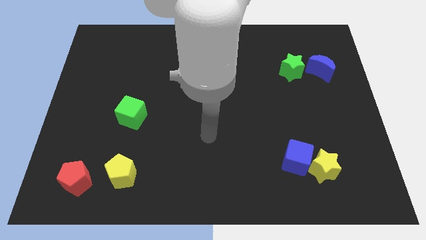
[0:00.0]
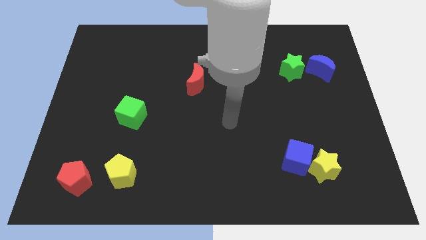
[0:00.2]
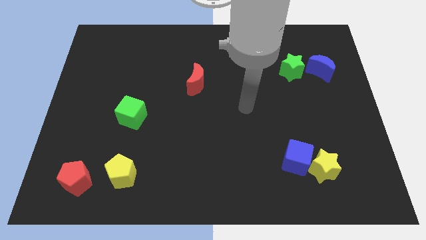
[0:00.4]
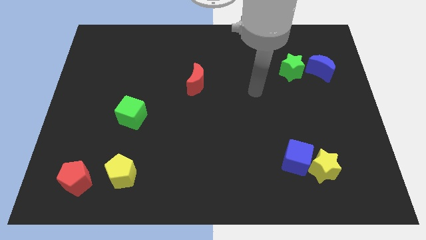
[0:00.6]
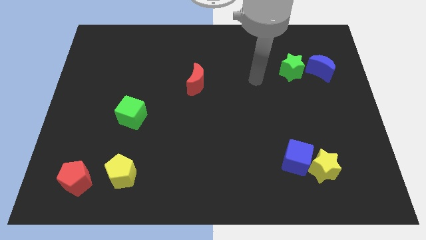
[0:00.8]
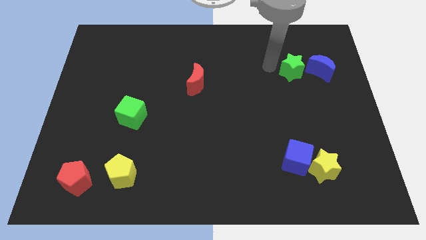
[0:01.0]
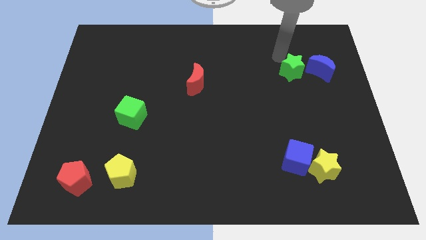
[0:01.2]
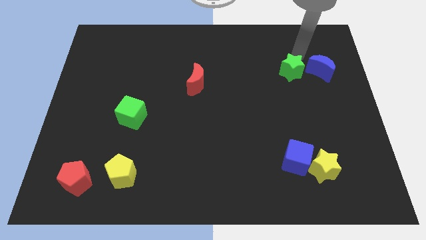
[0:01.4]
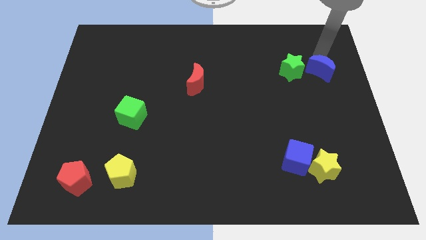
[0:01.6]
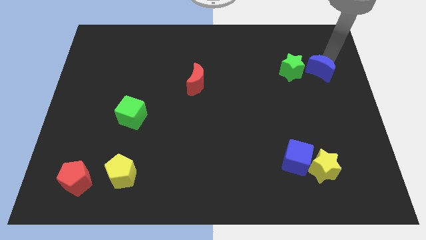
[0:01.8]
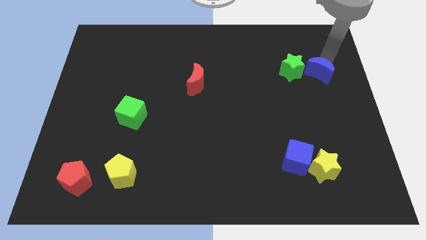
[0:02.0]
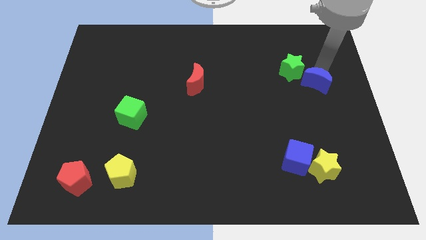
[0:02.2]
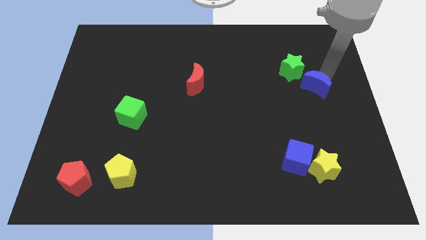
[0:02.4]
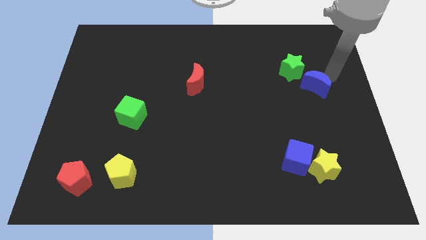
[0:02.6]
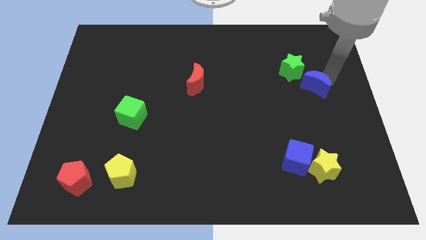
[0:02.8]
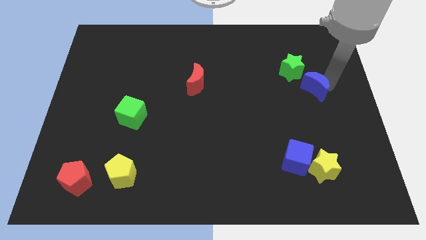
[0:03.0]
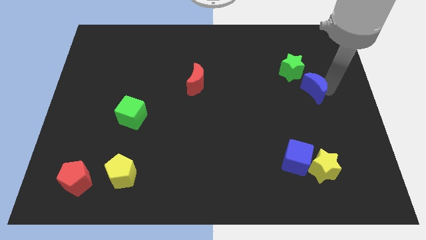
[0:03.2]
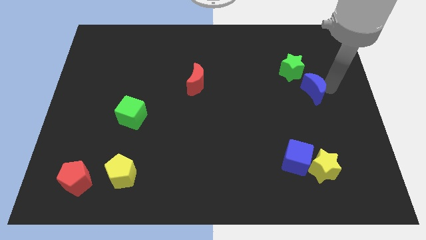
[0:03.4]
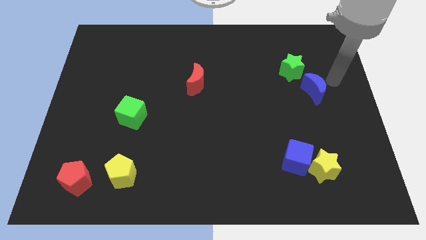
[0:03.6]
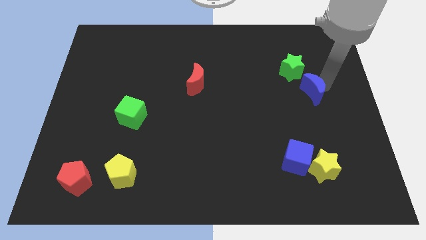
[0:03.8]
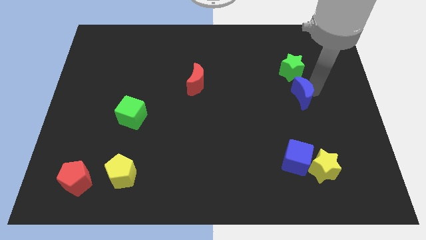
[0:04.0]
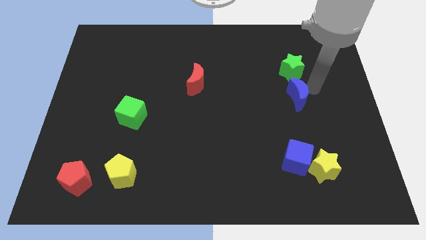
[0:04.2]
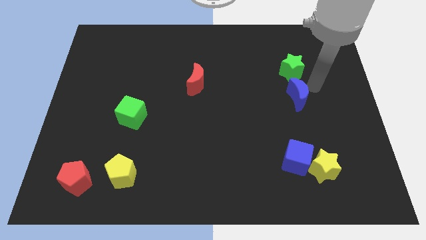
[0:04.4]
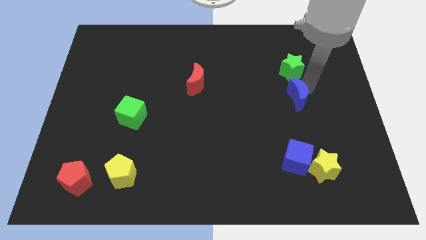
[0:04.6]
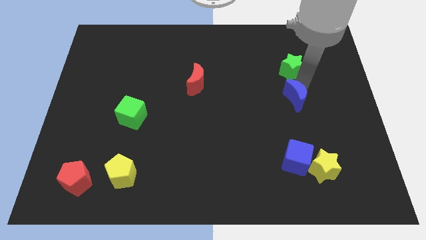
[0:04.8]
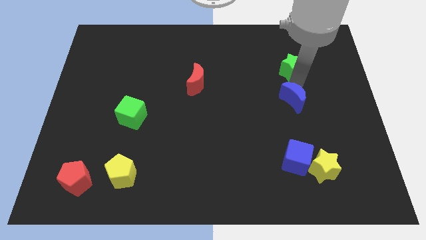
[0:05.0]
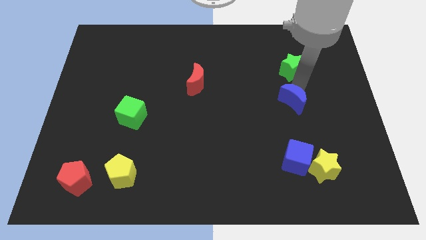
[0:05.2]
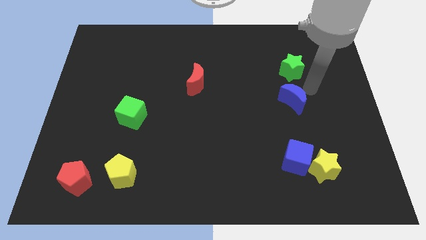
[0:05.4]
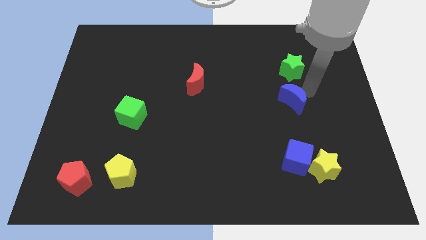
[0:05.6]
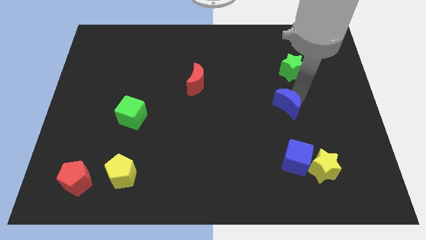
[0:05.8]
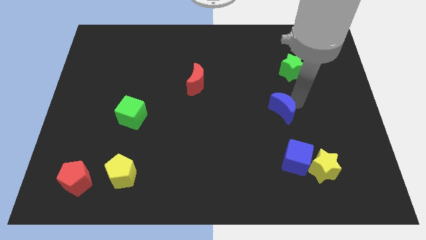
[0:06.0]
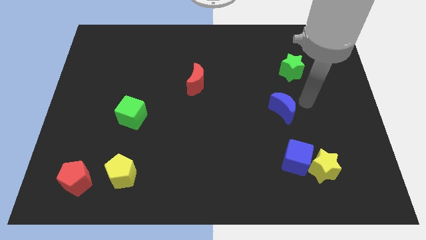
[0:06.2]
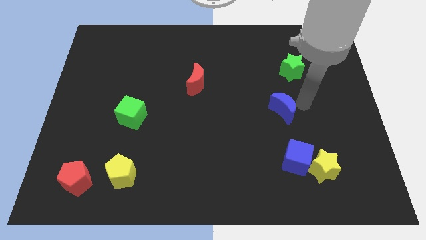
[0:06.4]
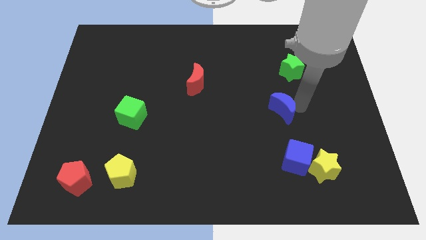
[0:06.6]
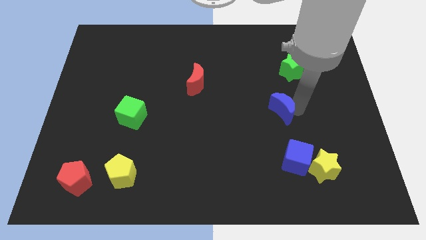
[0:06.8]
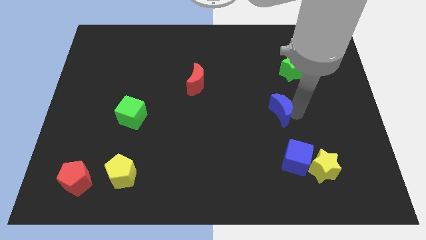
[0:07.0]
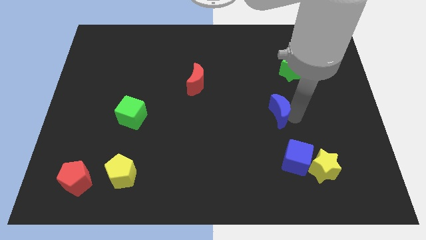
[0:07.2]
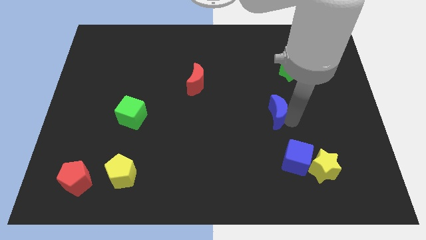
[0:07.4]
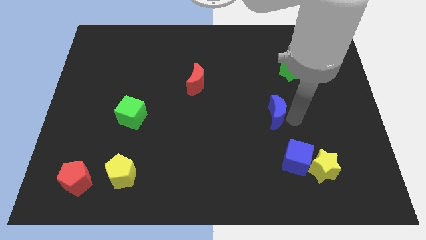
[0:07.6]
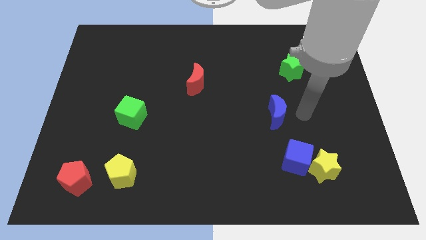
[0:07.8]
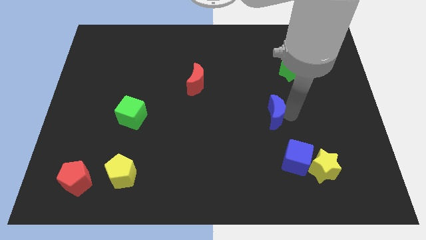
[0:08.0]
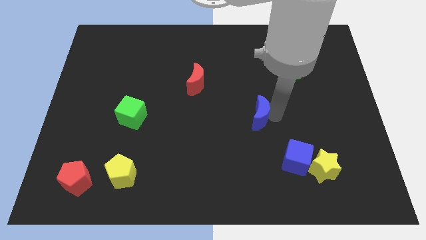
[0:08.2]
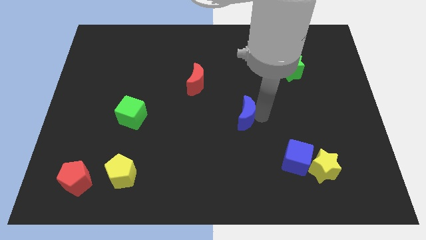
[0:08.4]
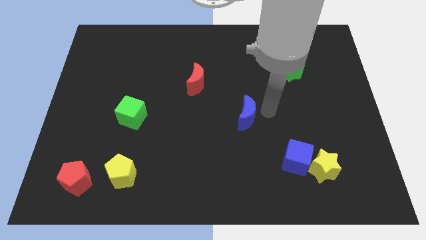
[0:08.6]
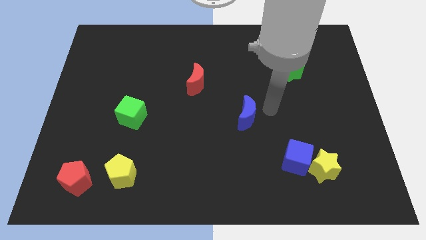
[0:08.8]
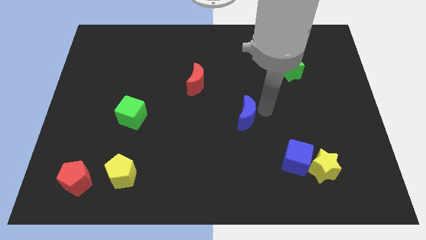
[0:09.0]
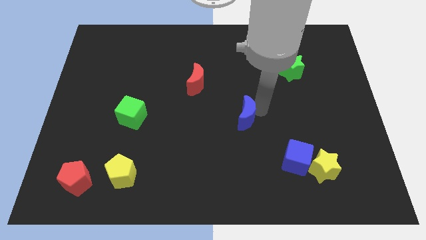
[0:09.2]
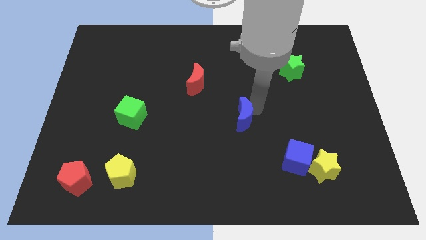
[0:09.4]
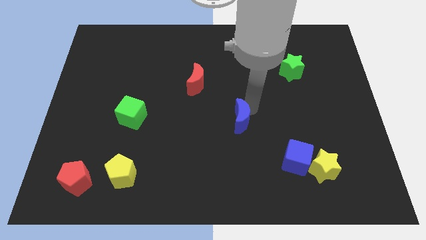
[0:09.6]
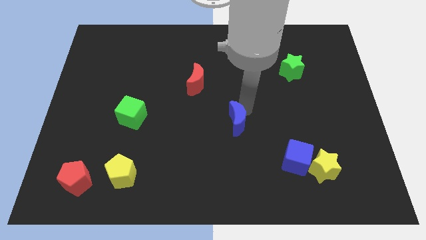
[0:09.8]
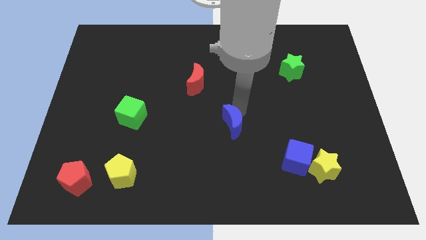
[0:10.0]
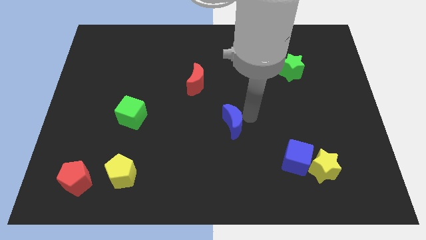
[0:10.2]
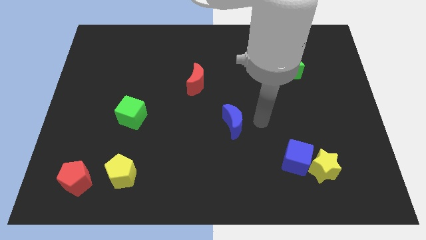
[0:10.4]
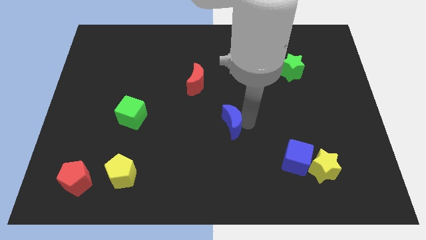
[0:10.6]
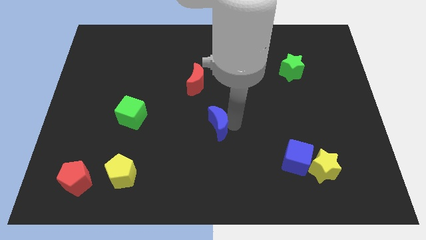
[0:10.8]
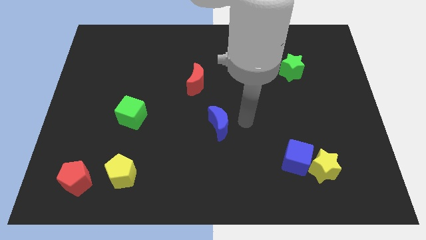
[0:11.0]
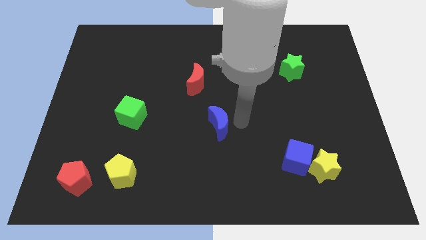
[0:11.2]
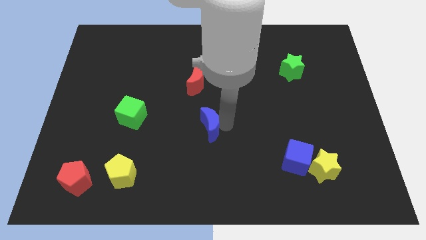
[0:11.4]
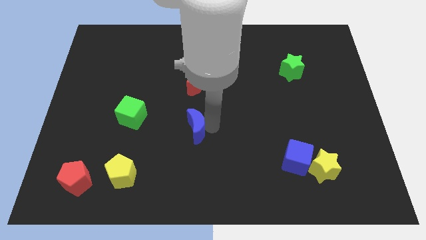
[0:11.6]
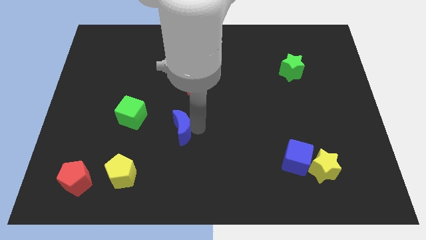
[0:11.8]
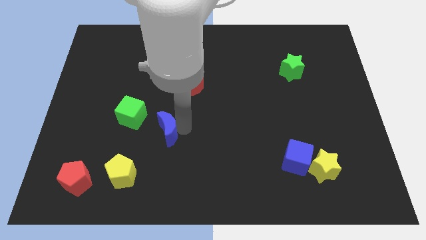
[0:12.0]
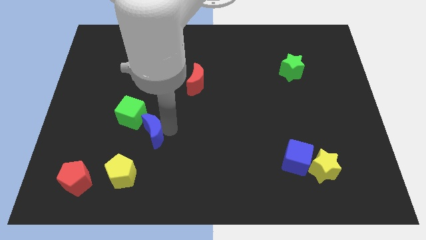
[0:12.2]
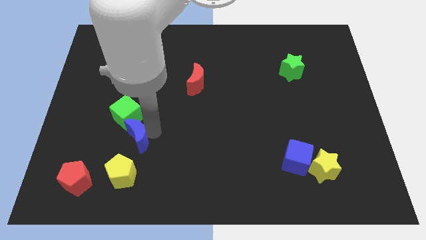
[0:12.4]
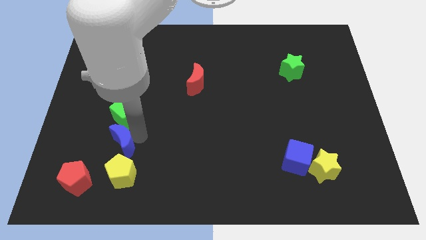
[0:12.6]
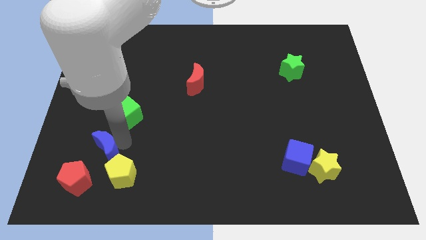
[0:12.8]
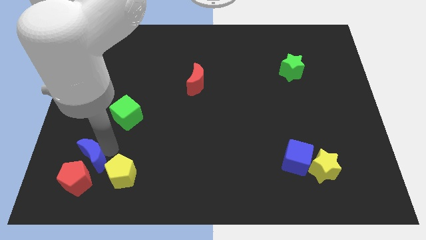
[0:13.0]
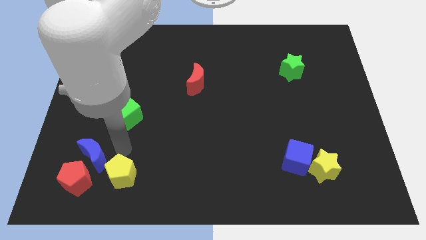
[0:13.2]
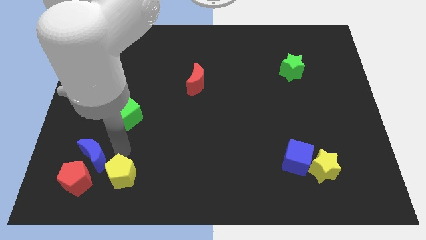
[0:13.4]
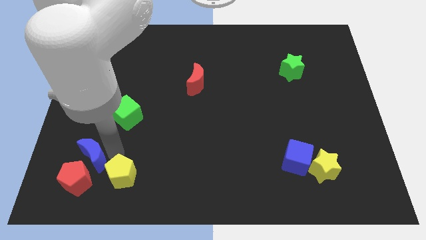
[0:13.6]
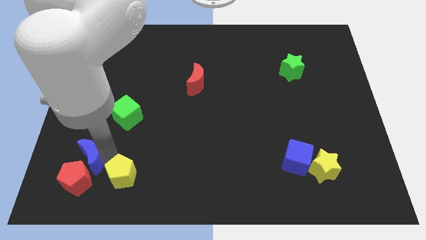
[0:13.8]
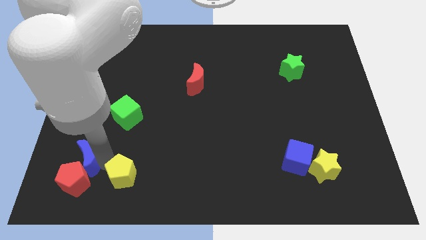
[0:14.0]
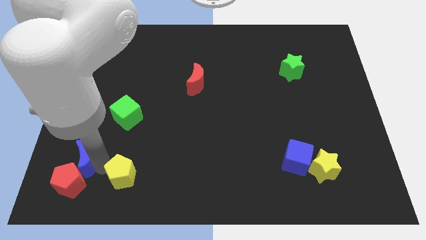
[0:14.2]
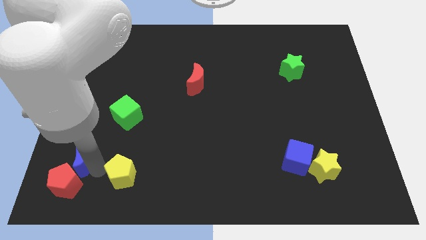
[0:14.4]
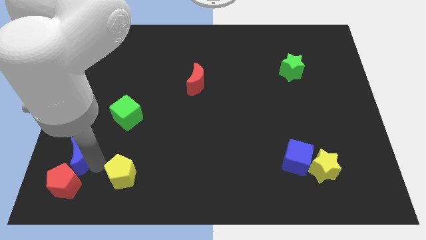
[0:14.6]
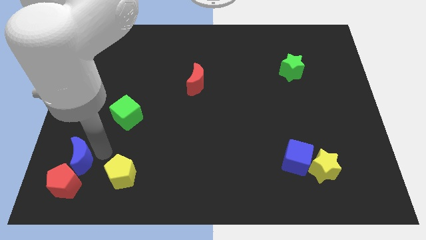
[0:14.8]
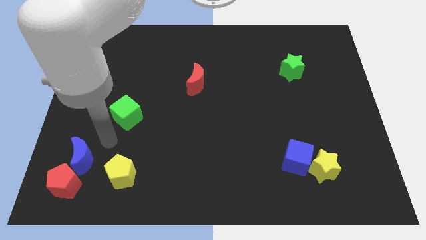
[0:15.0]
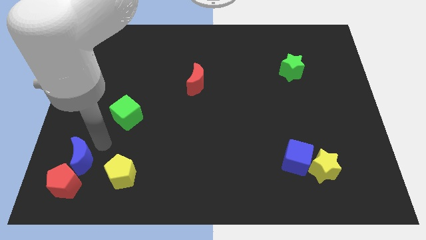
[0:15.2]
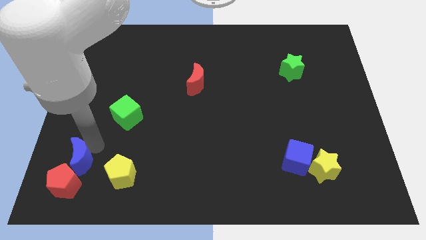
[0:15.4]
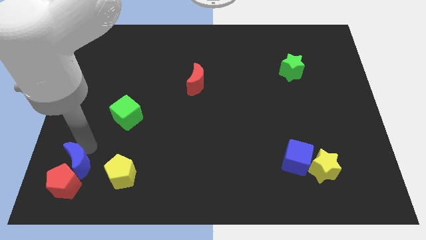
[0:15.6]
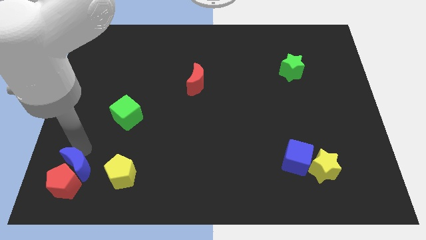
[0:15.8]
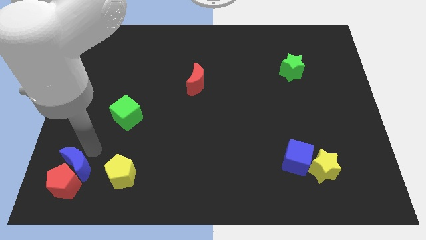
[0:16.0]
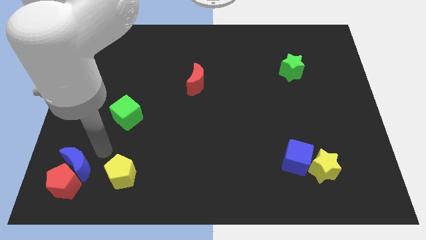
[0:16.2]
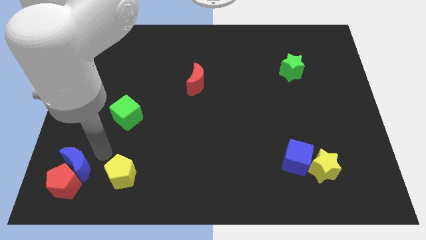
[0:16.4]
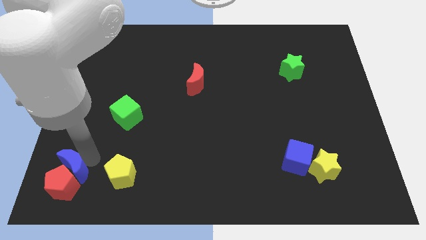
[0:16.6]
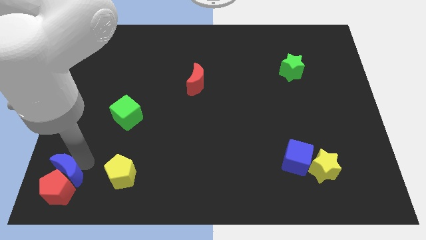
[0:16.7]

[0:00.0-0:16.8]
push the blue moon to the bottom left of the board
